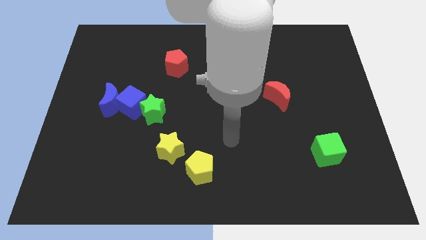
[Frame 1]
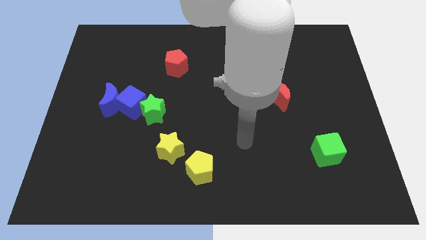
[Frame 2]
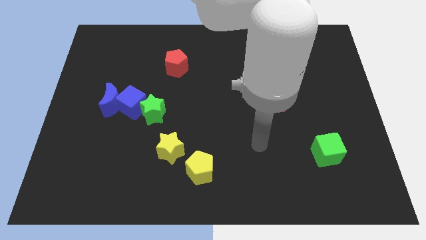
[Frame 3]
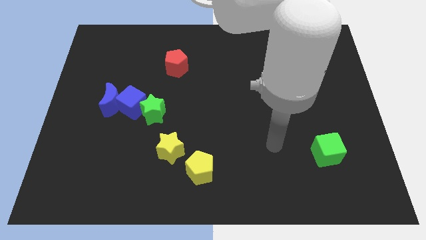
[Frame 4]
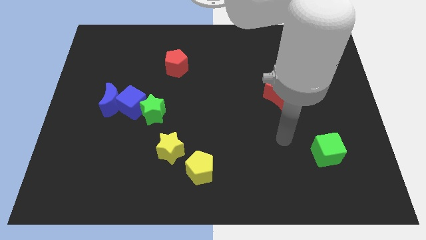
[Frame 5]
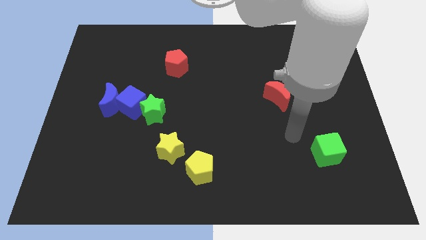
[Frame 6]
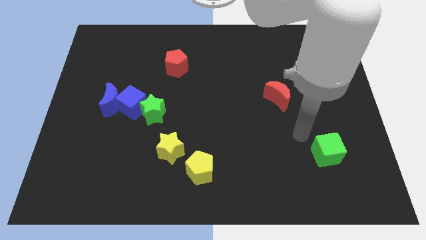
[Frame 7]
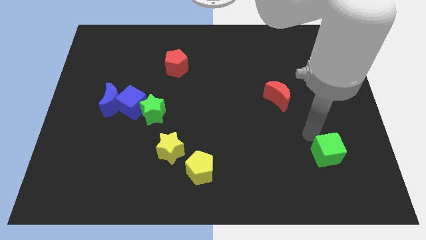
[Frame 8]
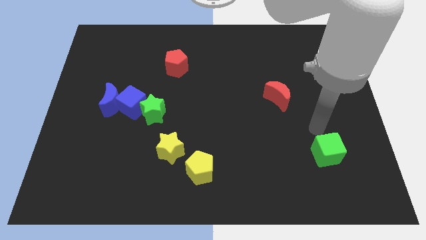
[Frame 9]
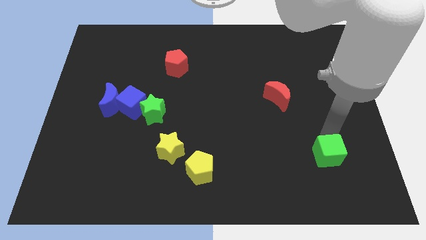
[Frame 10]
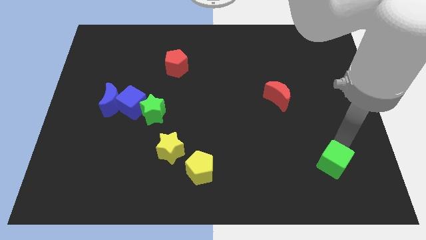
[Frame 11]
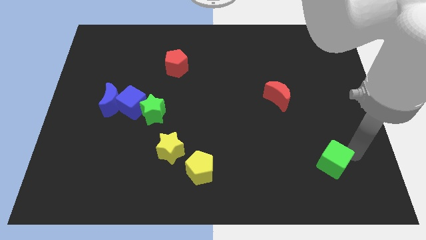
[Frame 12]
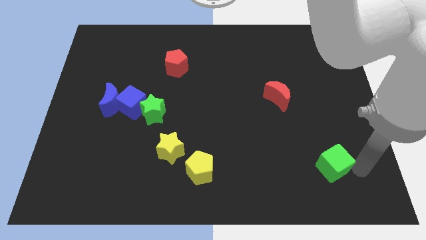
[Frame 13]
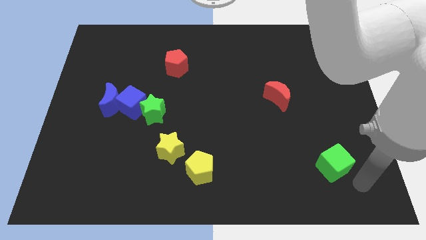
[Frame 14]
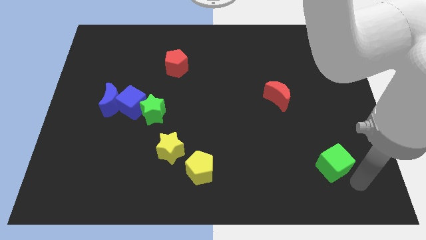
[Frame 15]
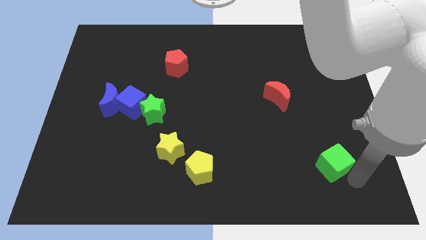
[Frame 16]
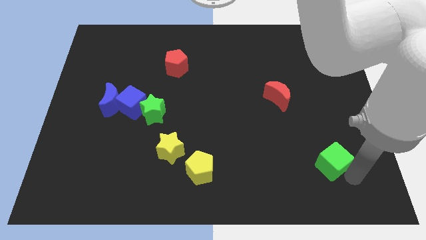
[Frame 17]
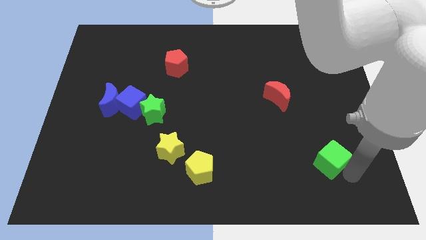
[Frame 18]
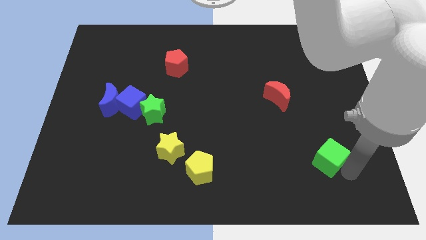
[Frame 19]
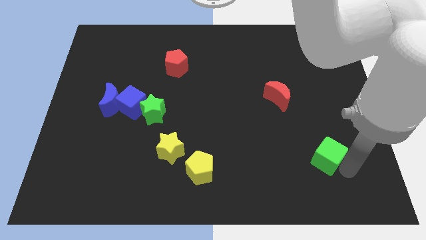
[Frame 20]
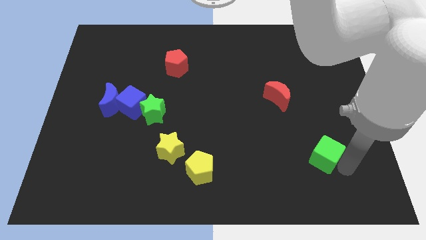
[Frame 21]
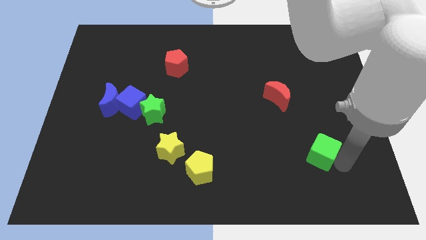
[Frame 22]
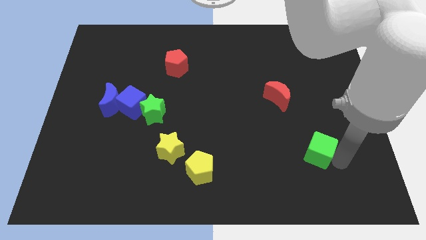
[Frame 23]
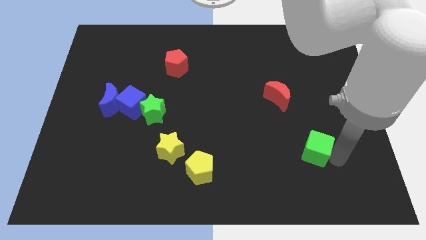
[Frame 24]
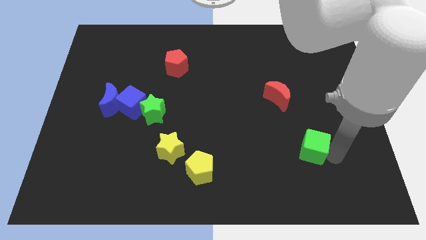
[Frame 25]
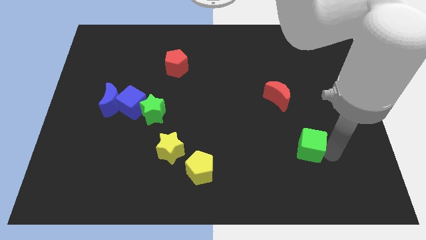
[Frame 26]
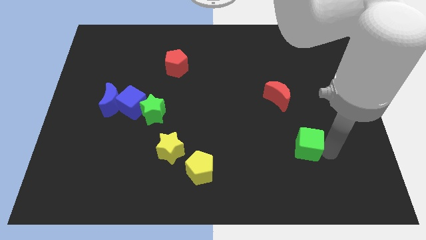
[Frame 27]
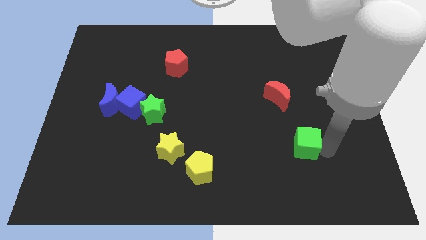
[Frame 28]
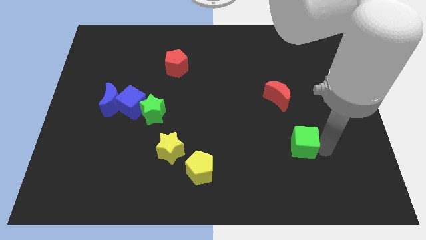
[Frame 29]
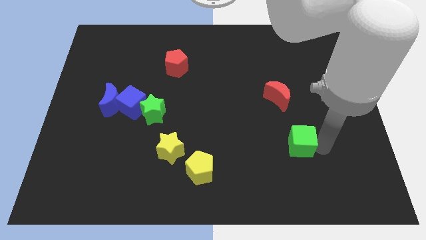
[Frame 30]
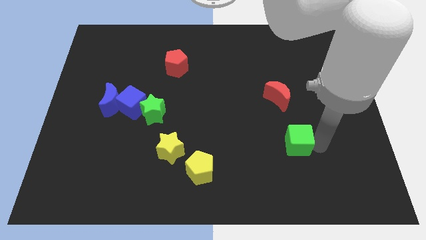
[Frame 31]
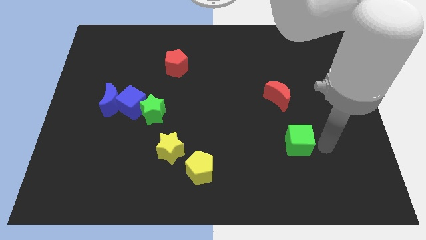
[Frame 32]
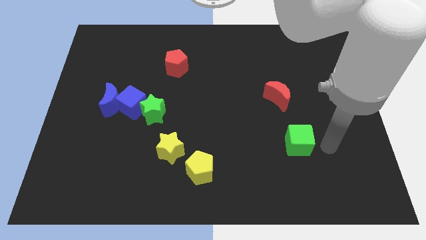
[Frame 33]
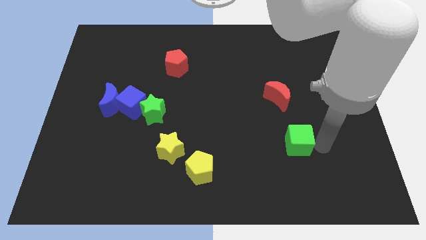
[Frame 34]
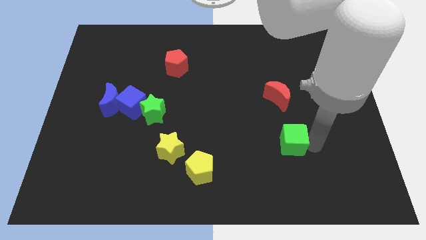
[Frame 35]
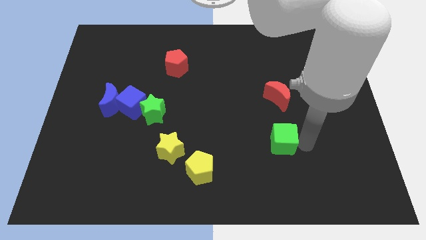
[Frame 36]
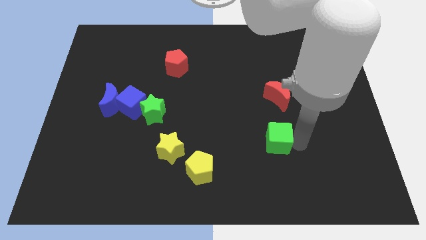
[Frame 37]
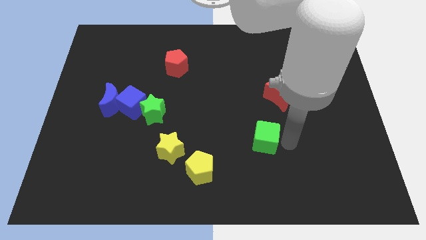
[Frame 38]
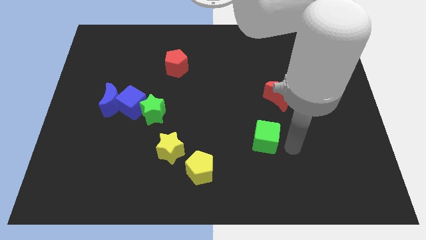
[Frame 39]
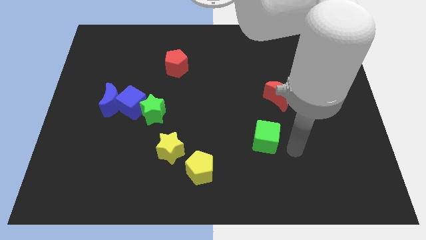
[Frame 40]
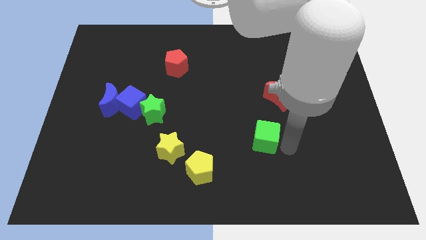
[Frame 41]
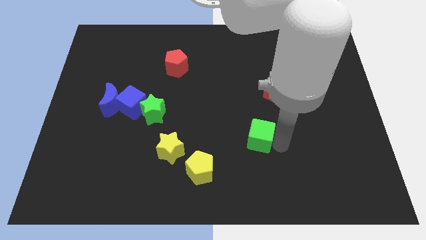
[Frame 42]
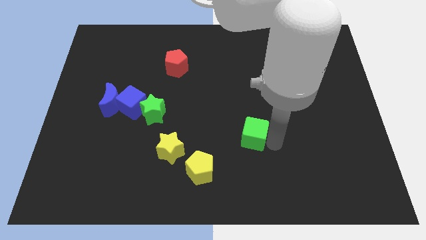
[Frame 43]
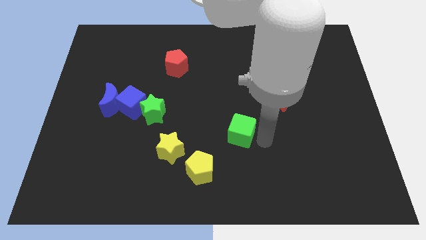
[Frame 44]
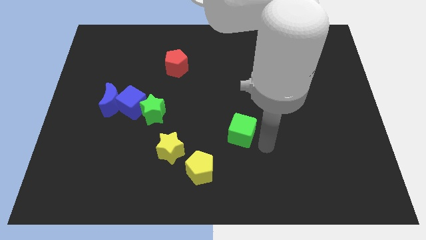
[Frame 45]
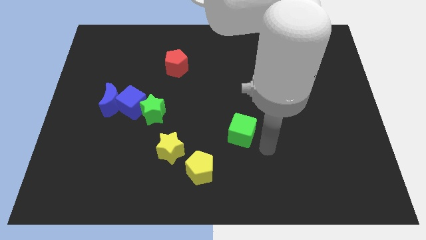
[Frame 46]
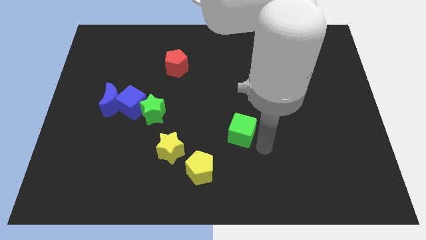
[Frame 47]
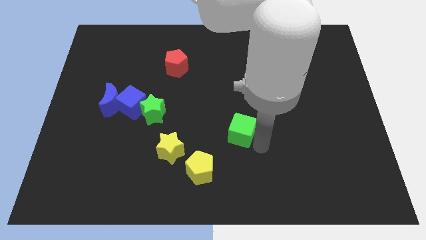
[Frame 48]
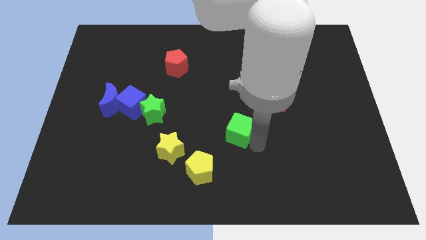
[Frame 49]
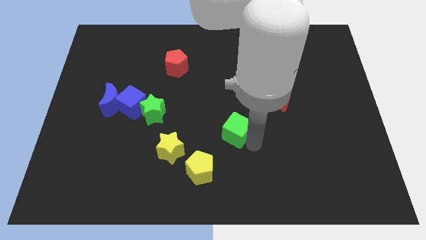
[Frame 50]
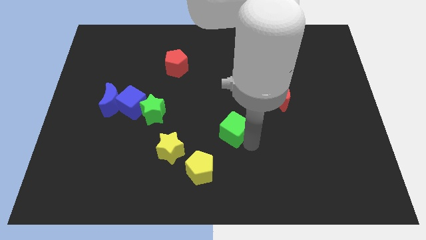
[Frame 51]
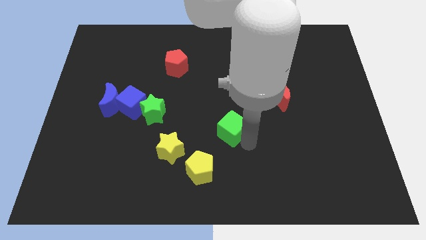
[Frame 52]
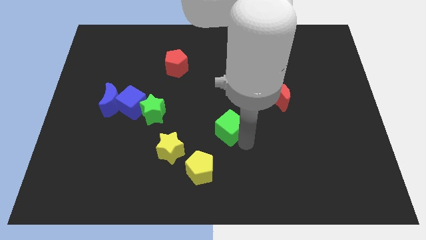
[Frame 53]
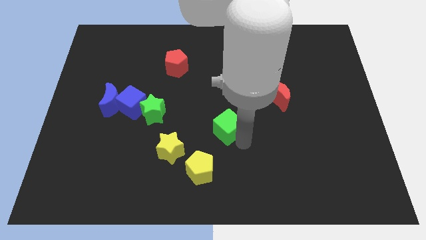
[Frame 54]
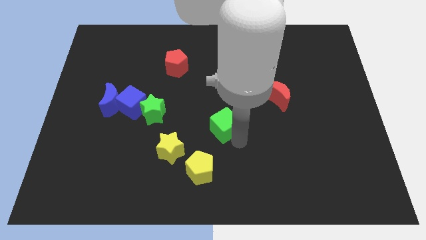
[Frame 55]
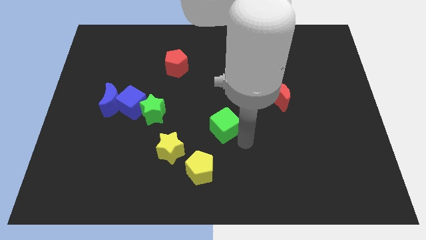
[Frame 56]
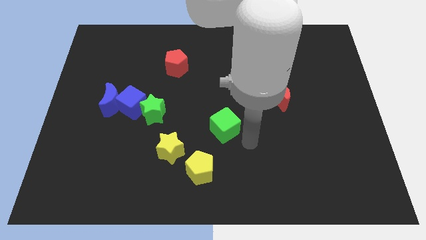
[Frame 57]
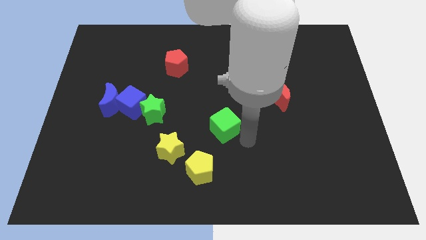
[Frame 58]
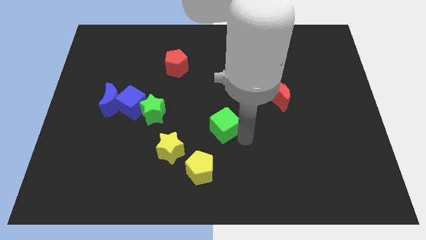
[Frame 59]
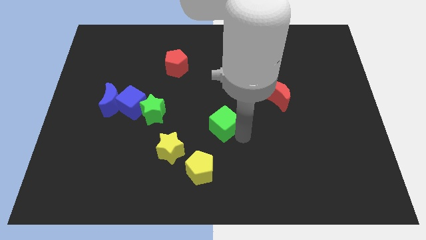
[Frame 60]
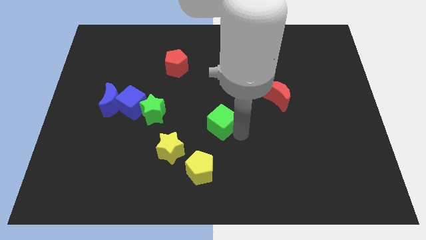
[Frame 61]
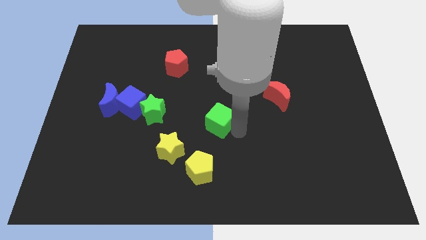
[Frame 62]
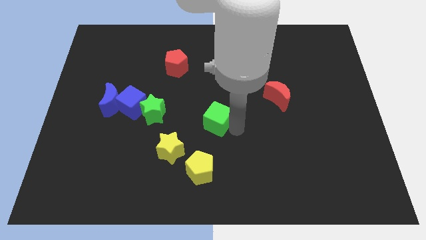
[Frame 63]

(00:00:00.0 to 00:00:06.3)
slide the green cube right of the green star
